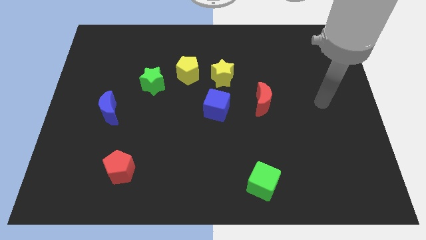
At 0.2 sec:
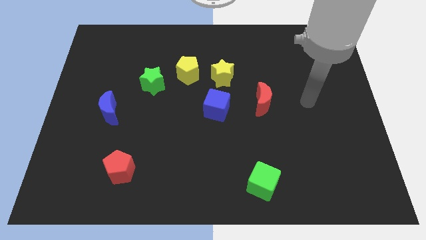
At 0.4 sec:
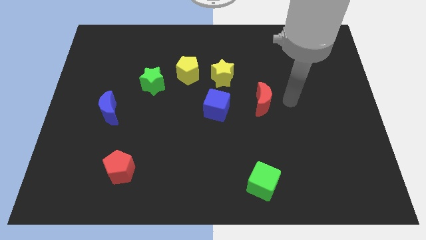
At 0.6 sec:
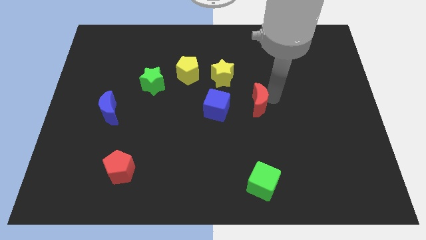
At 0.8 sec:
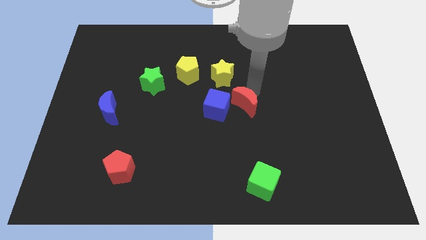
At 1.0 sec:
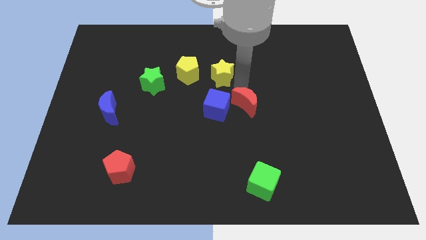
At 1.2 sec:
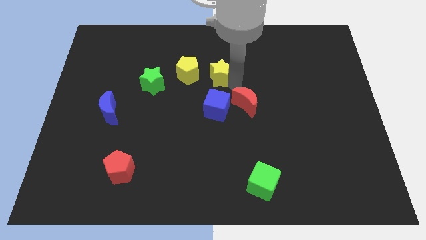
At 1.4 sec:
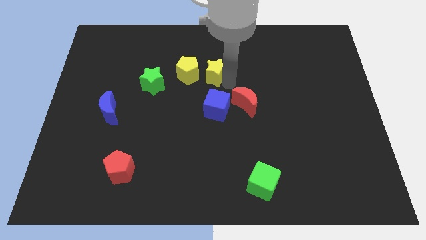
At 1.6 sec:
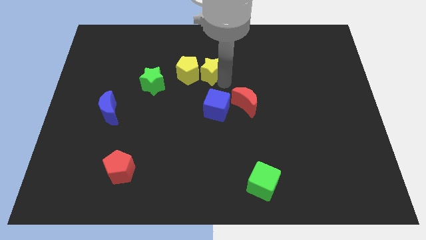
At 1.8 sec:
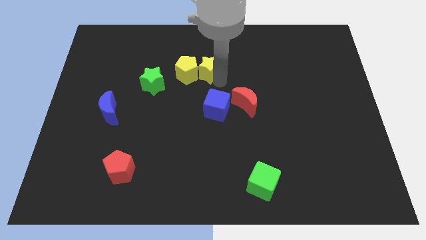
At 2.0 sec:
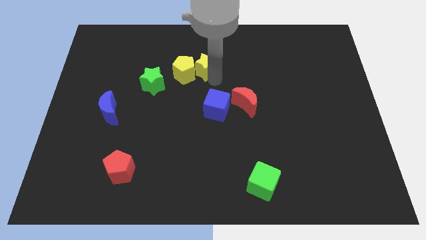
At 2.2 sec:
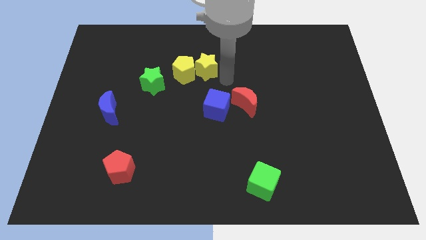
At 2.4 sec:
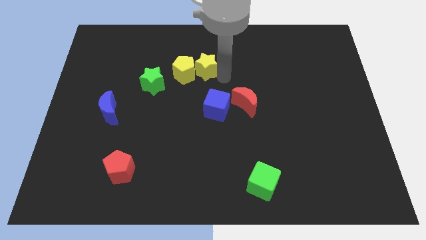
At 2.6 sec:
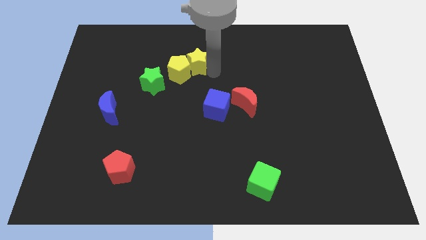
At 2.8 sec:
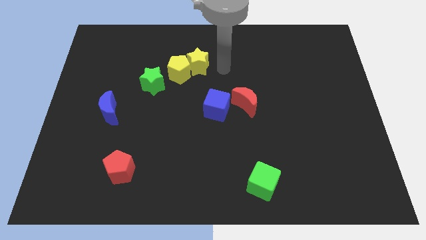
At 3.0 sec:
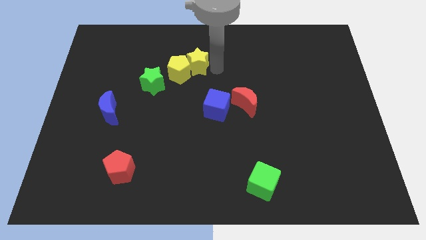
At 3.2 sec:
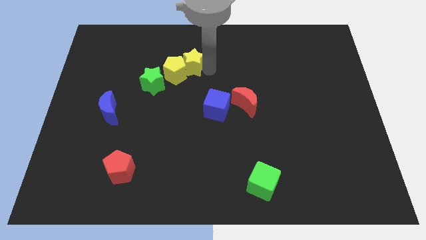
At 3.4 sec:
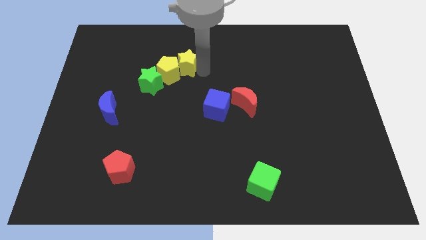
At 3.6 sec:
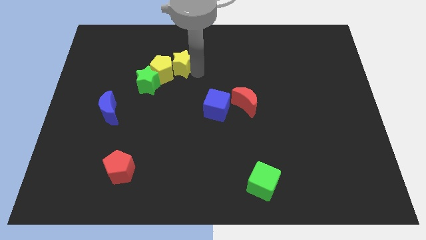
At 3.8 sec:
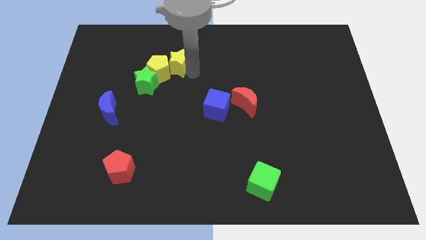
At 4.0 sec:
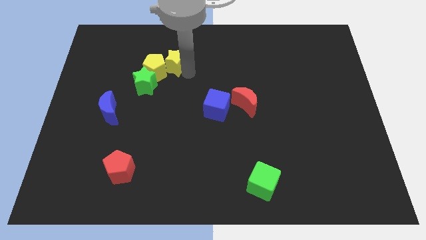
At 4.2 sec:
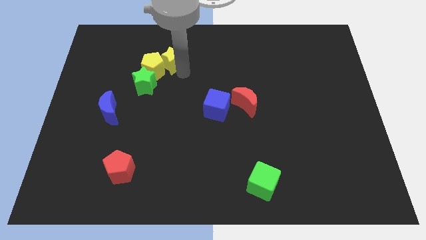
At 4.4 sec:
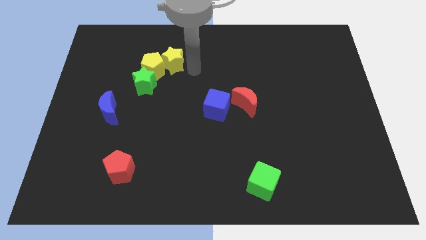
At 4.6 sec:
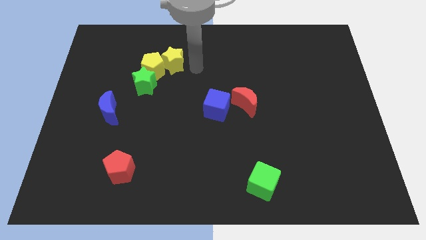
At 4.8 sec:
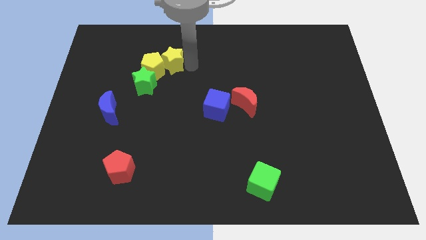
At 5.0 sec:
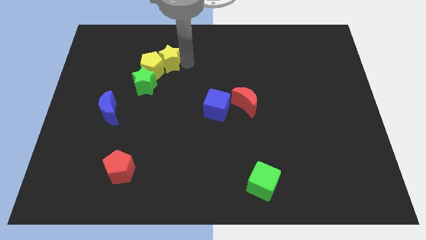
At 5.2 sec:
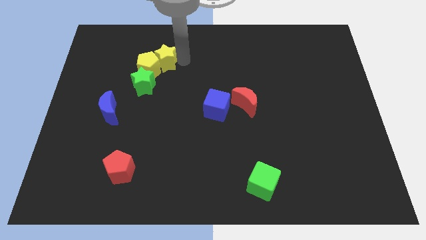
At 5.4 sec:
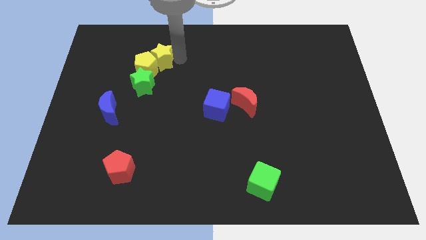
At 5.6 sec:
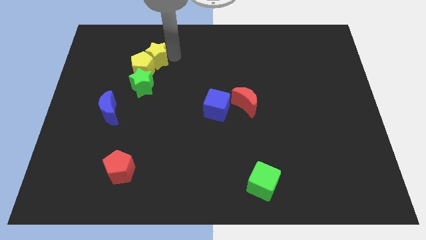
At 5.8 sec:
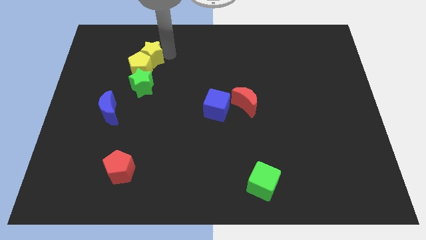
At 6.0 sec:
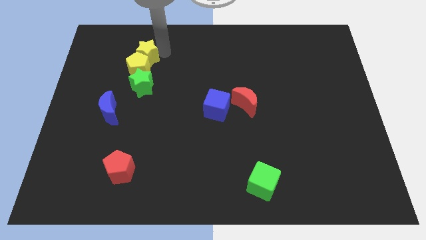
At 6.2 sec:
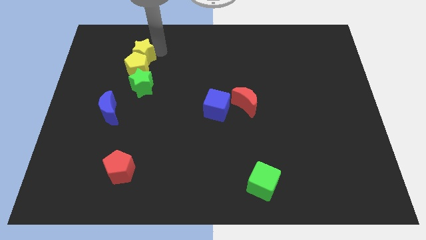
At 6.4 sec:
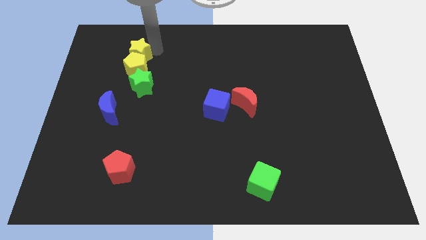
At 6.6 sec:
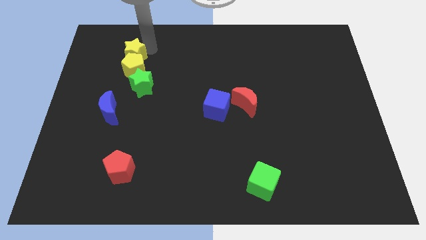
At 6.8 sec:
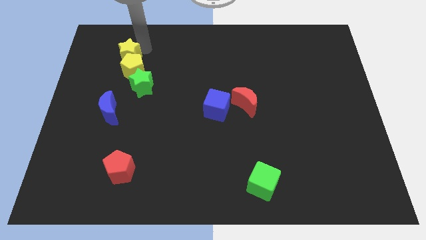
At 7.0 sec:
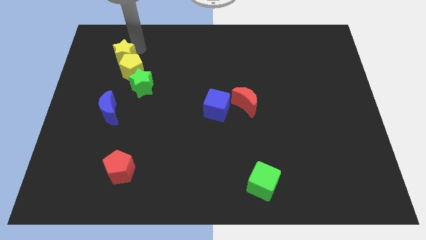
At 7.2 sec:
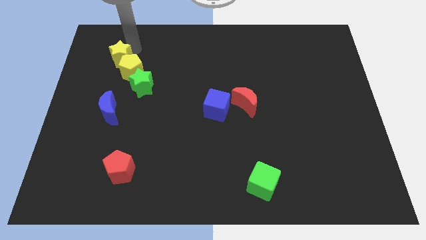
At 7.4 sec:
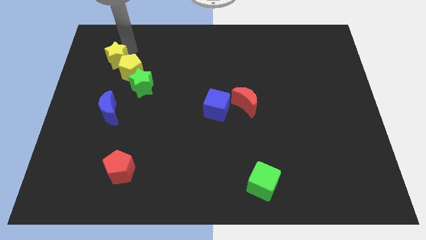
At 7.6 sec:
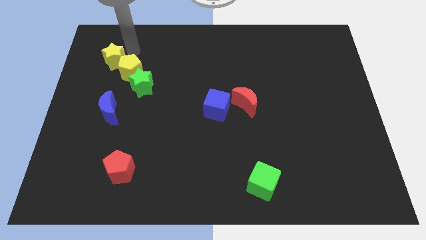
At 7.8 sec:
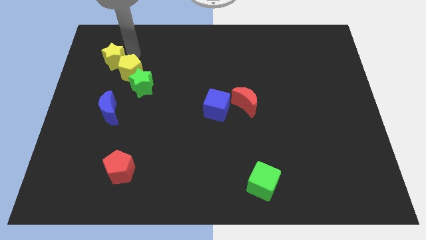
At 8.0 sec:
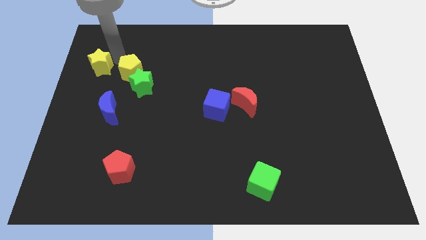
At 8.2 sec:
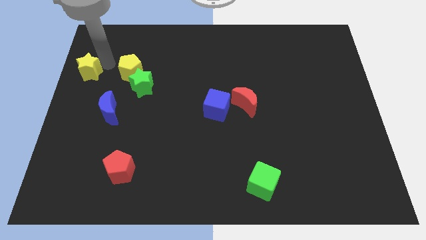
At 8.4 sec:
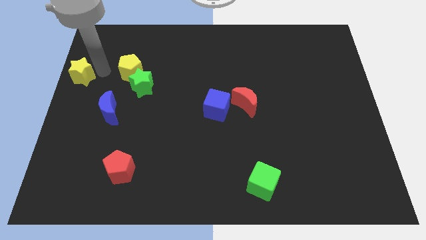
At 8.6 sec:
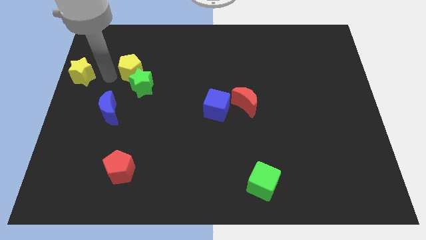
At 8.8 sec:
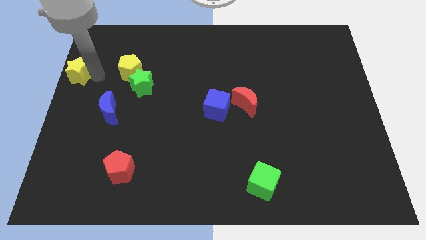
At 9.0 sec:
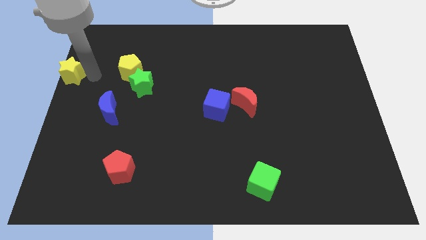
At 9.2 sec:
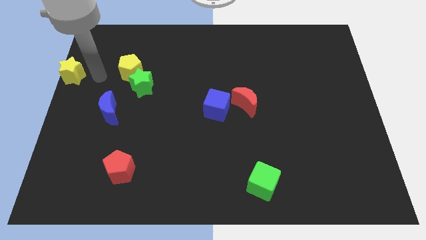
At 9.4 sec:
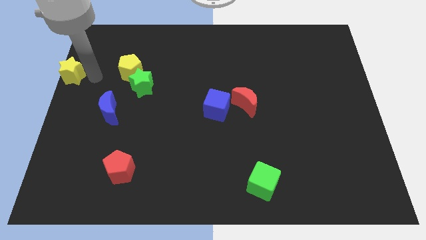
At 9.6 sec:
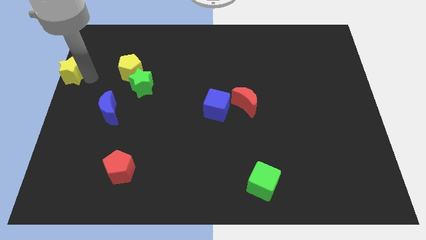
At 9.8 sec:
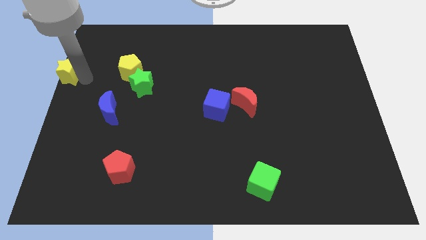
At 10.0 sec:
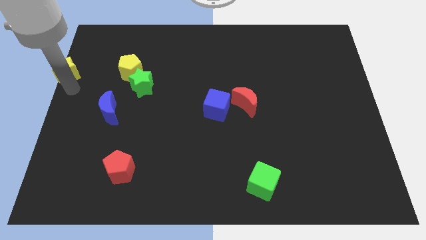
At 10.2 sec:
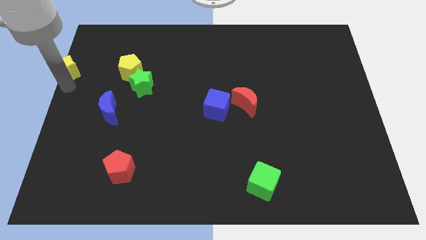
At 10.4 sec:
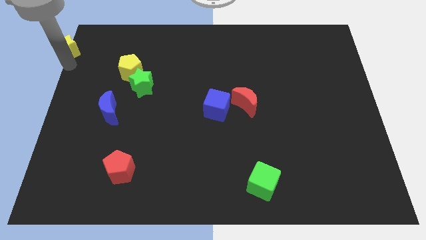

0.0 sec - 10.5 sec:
put the yellow star to the top left
